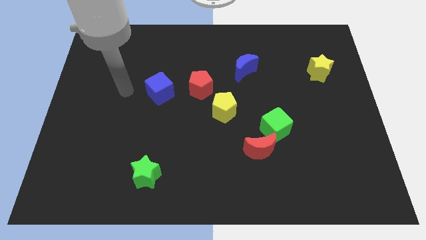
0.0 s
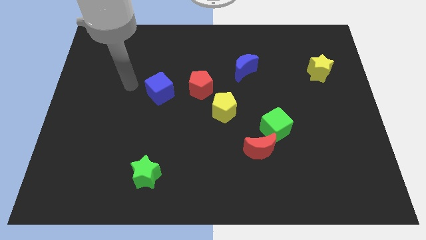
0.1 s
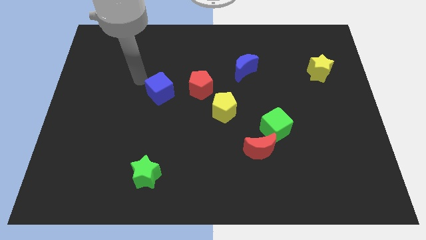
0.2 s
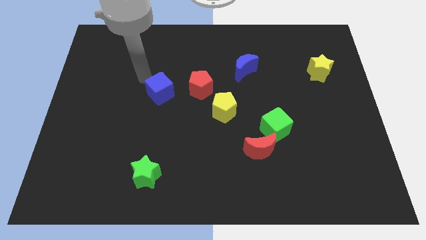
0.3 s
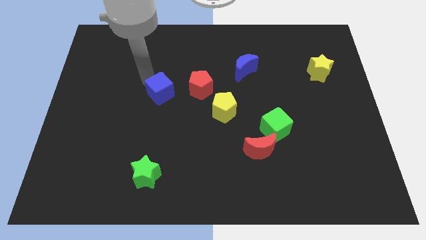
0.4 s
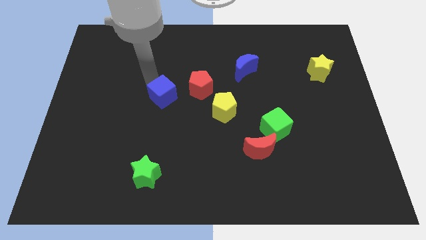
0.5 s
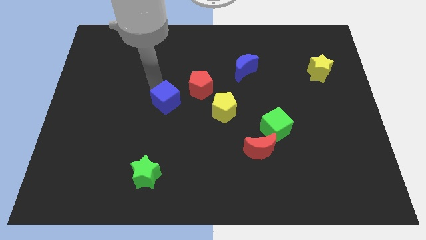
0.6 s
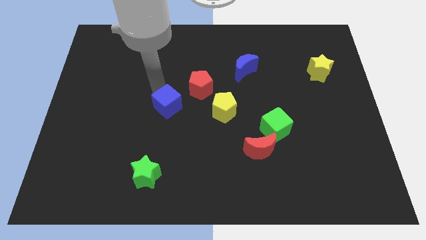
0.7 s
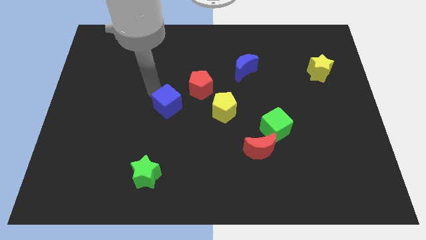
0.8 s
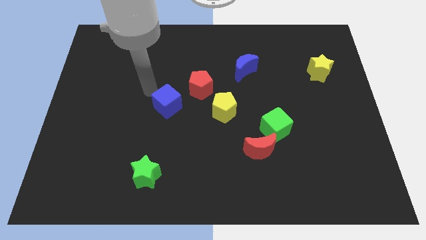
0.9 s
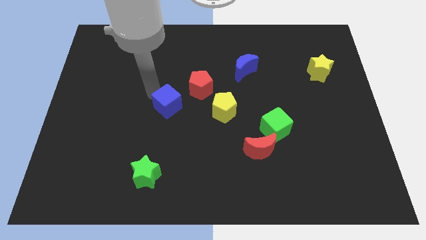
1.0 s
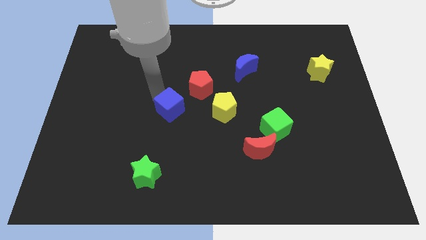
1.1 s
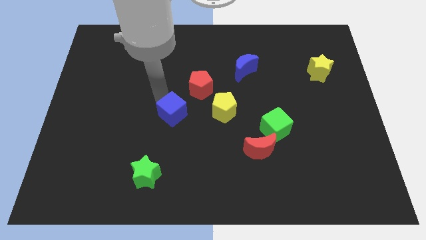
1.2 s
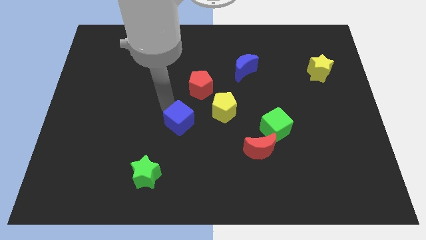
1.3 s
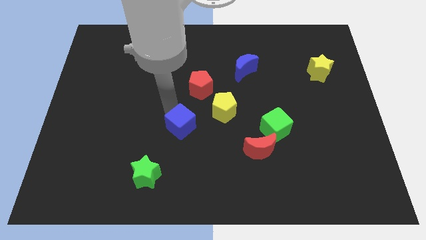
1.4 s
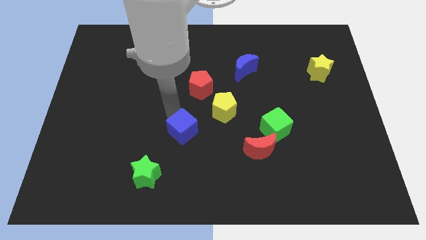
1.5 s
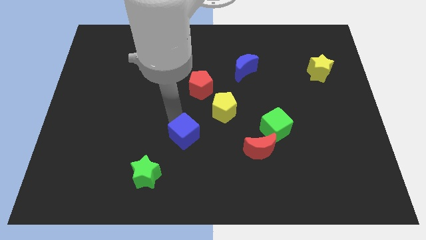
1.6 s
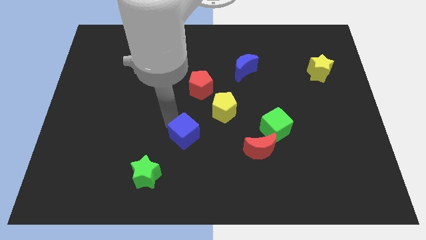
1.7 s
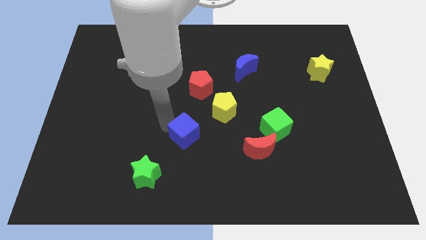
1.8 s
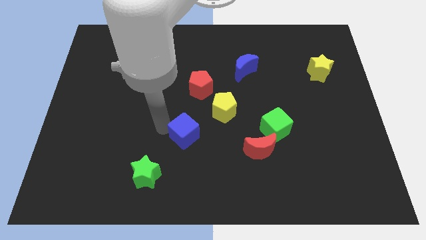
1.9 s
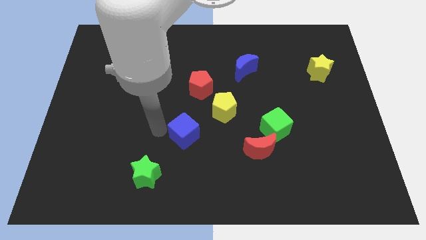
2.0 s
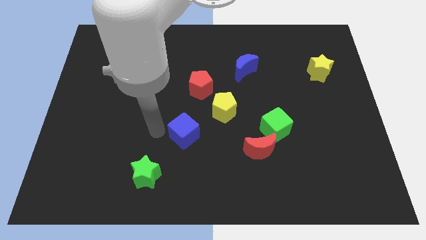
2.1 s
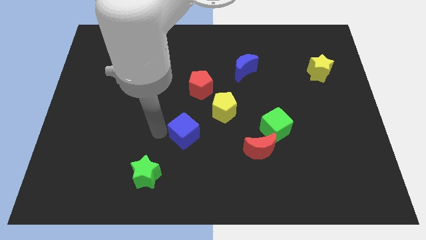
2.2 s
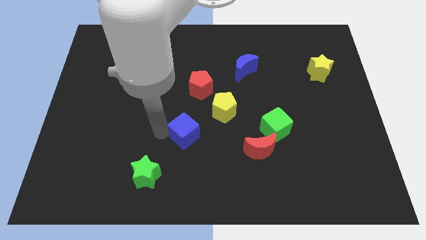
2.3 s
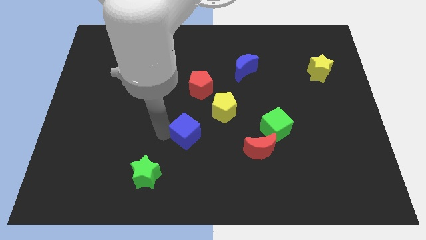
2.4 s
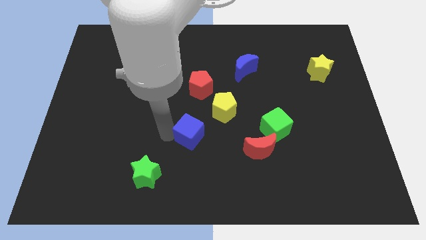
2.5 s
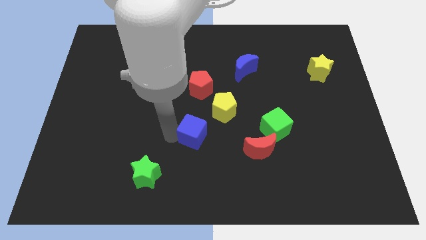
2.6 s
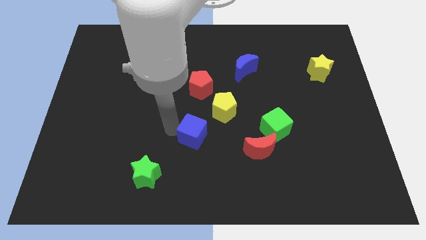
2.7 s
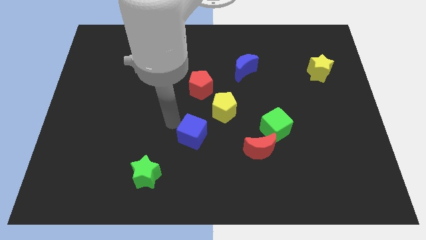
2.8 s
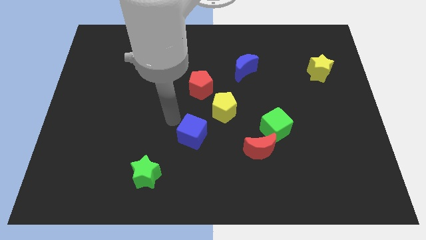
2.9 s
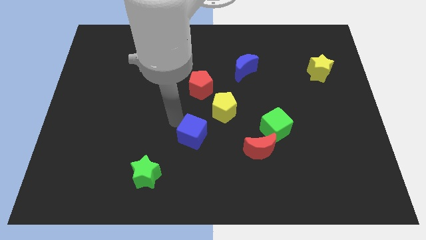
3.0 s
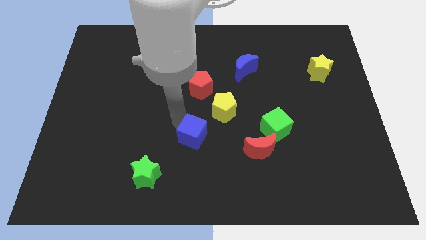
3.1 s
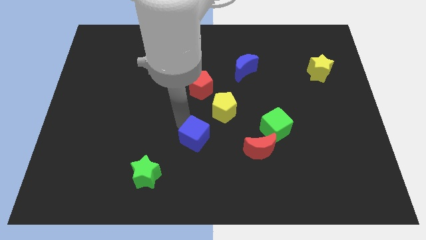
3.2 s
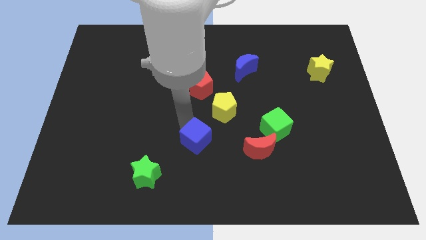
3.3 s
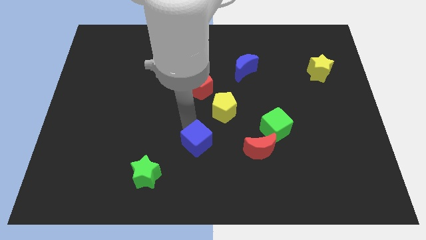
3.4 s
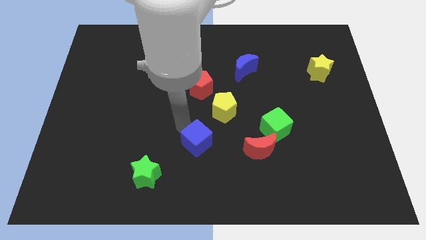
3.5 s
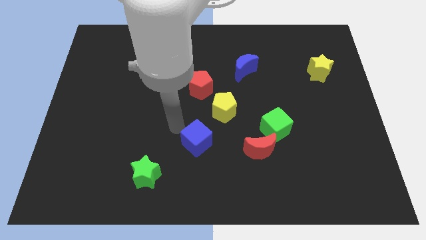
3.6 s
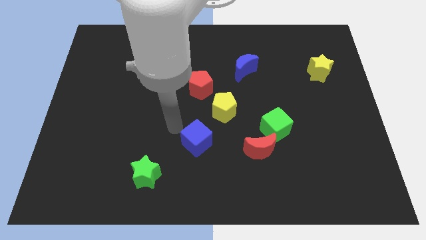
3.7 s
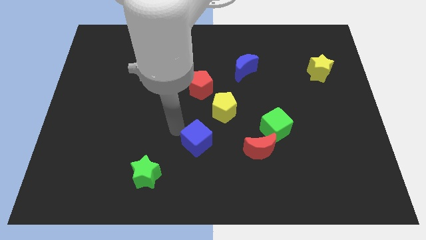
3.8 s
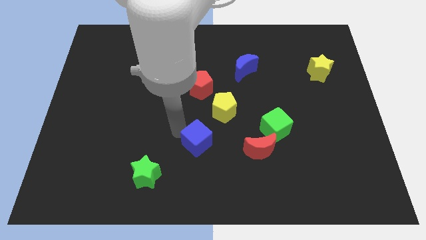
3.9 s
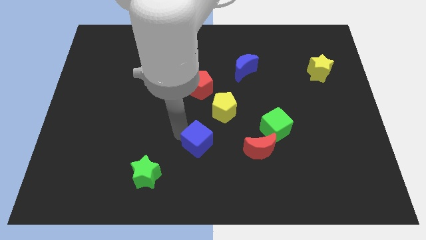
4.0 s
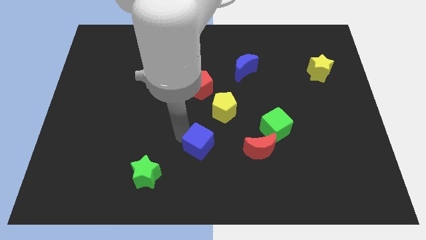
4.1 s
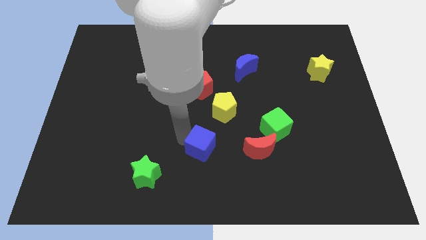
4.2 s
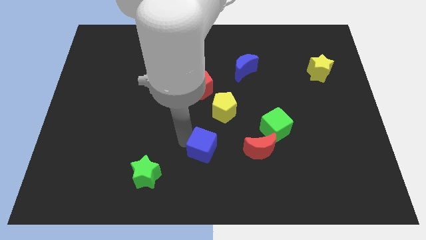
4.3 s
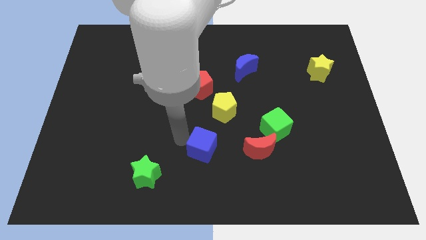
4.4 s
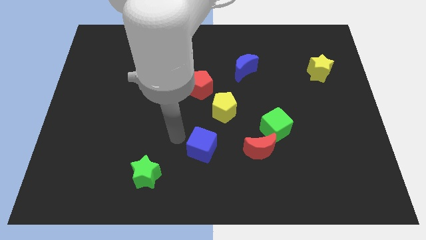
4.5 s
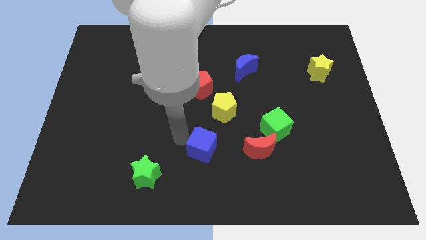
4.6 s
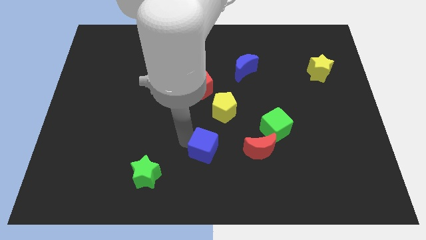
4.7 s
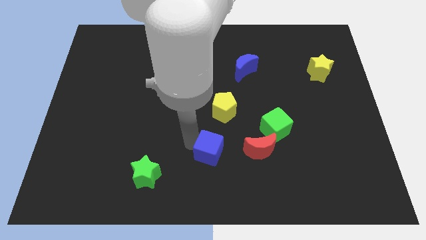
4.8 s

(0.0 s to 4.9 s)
push the blue cube diagonally downwards and right

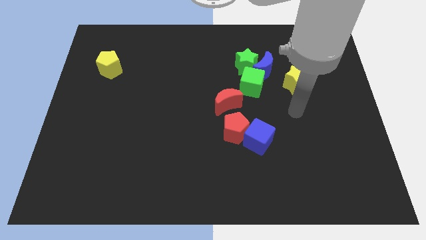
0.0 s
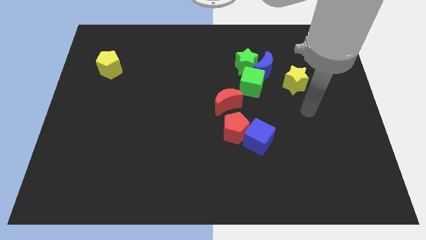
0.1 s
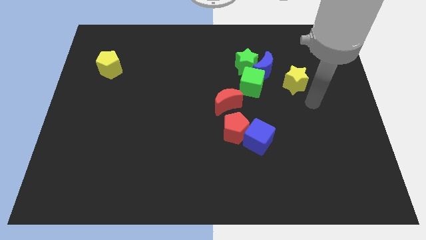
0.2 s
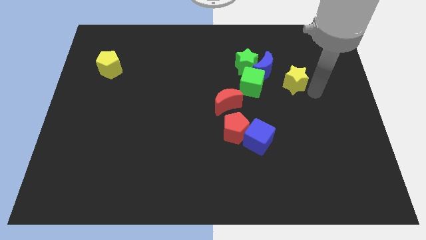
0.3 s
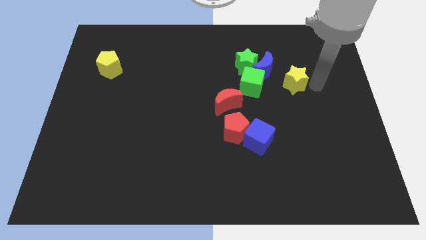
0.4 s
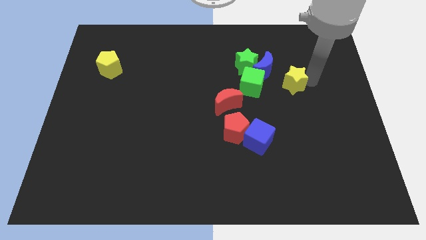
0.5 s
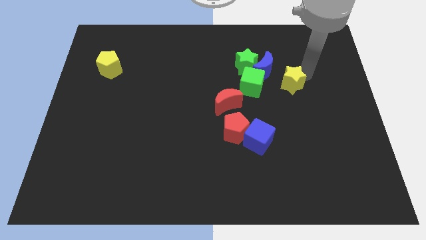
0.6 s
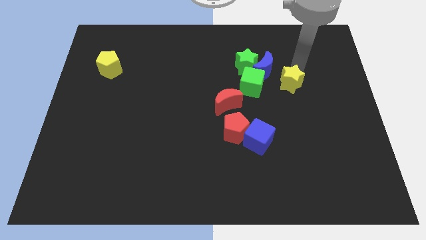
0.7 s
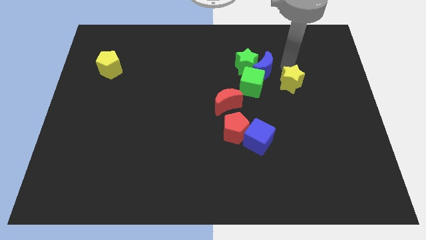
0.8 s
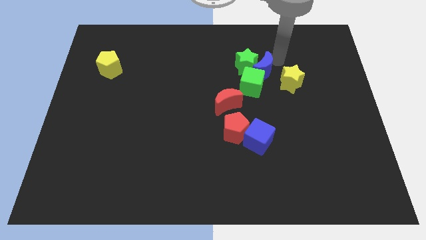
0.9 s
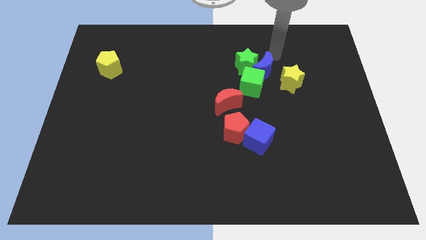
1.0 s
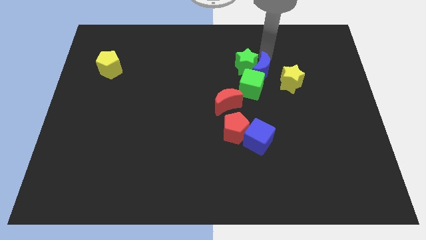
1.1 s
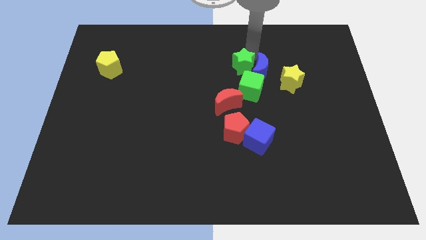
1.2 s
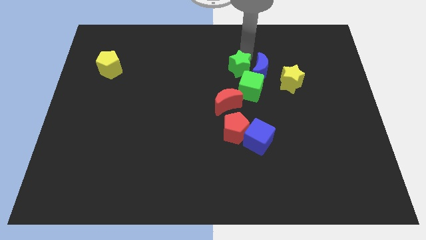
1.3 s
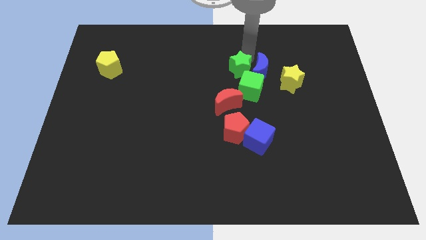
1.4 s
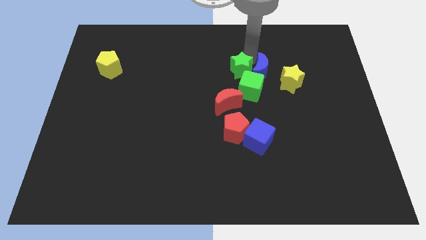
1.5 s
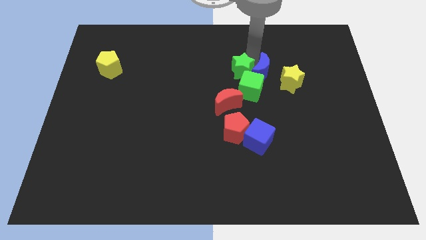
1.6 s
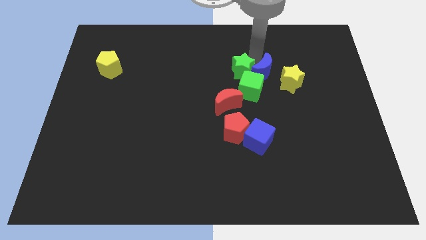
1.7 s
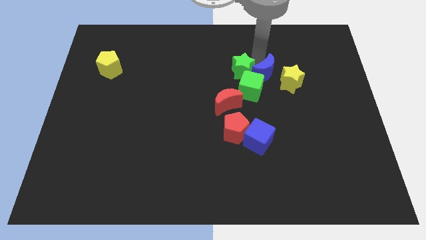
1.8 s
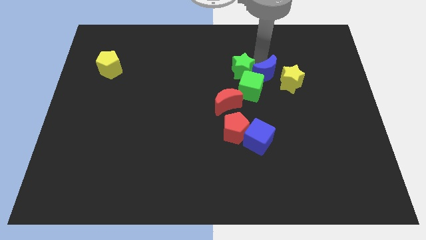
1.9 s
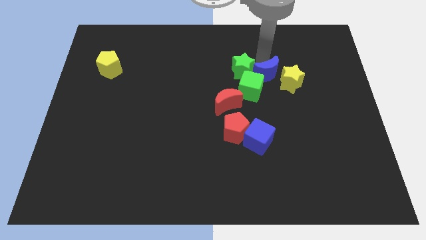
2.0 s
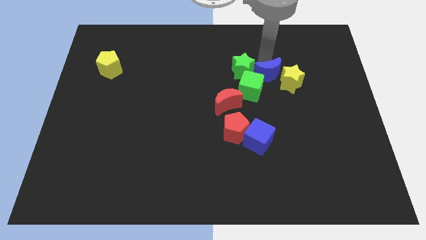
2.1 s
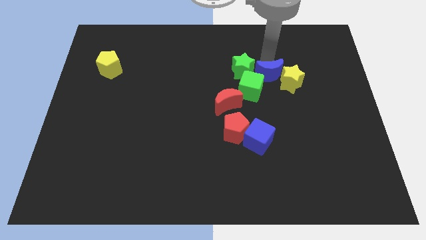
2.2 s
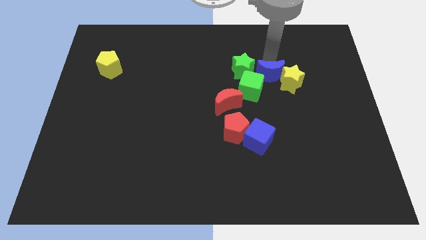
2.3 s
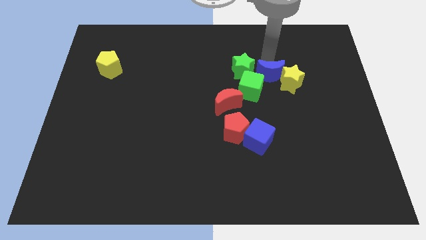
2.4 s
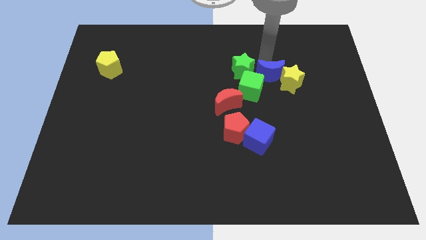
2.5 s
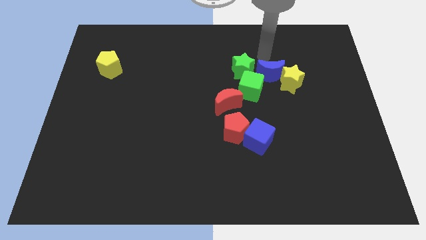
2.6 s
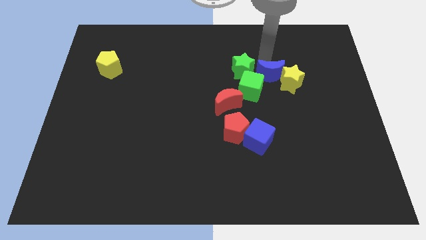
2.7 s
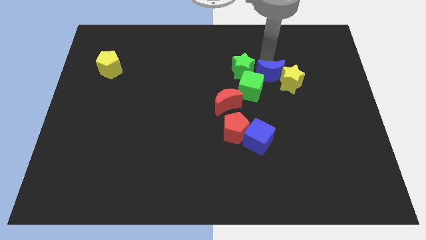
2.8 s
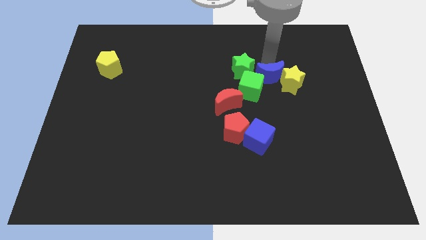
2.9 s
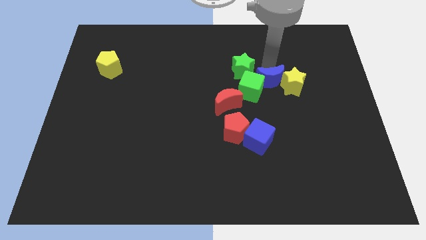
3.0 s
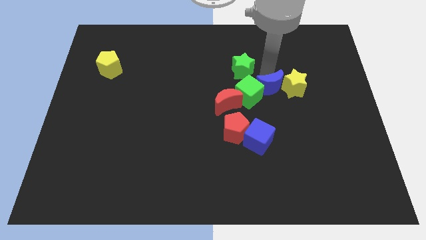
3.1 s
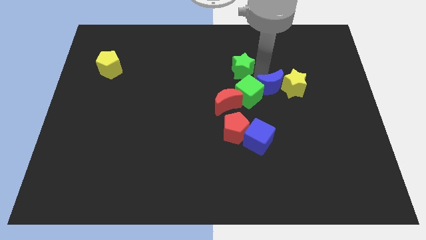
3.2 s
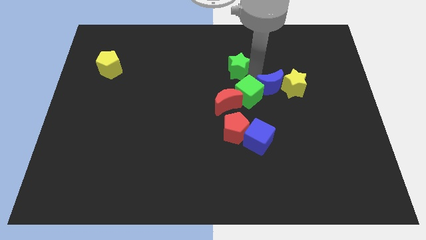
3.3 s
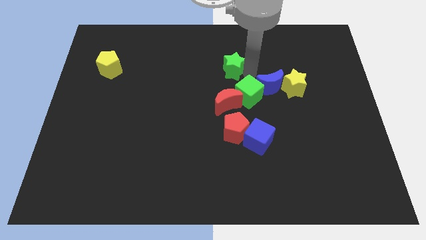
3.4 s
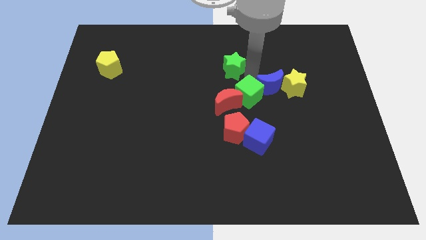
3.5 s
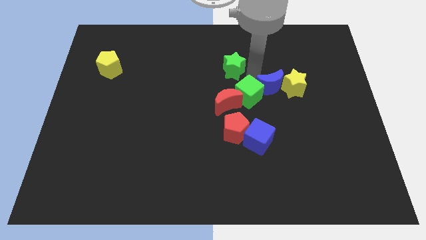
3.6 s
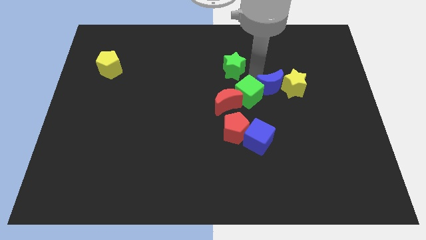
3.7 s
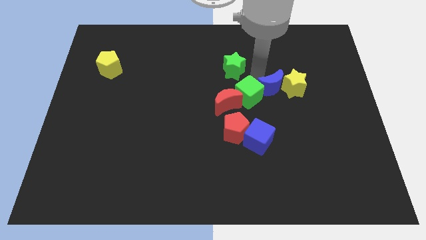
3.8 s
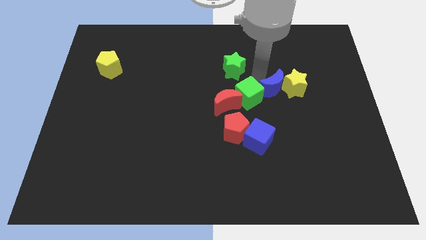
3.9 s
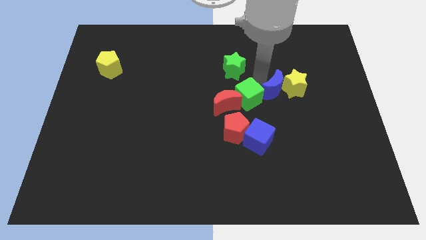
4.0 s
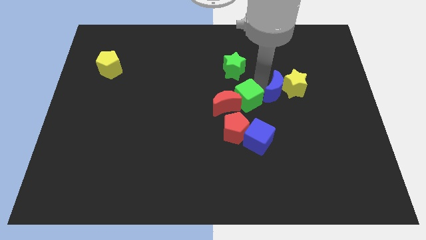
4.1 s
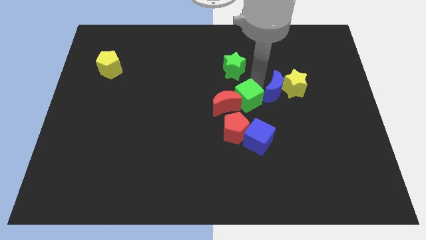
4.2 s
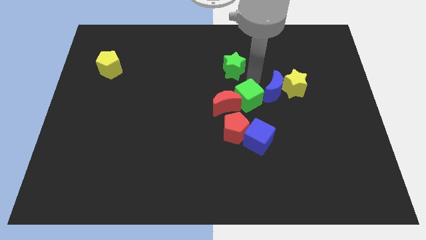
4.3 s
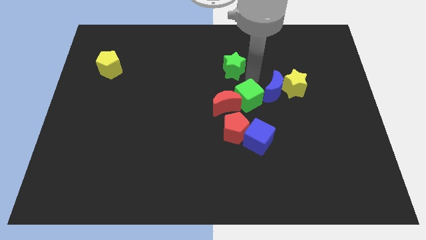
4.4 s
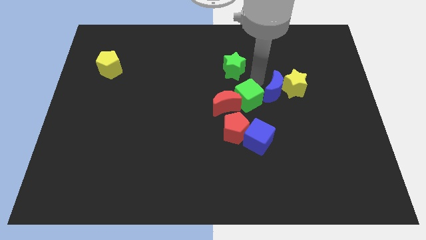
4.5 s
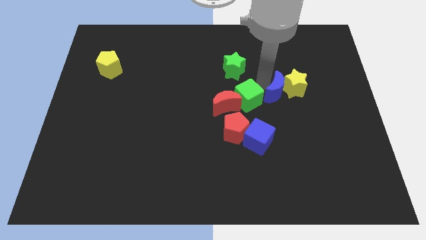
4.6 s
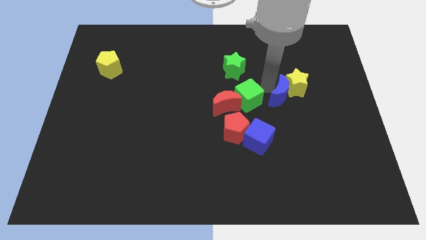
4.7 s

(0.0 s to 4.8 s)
push the blue moon slightly down and right diagonally
